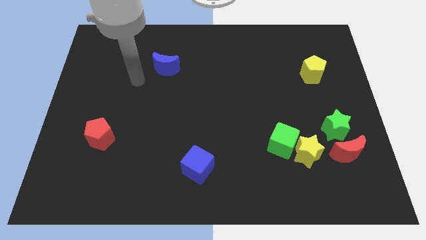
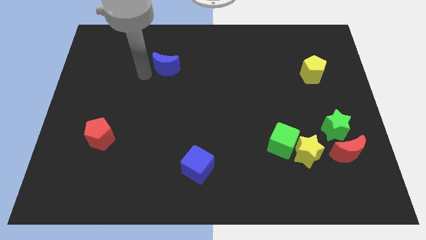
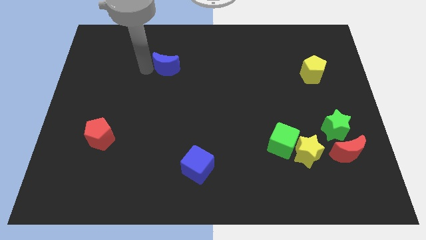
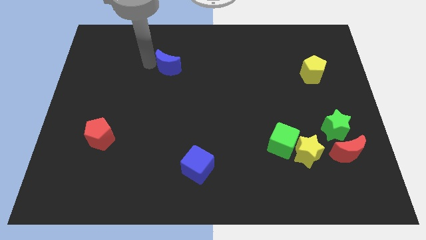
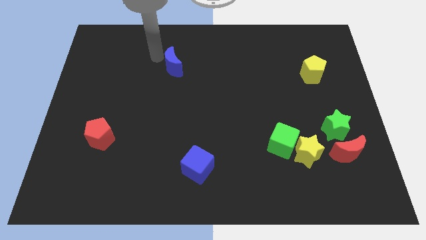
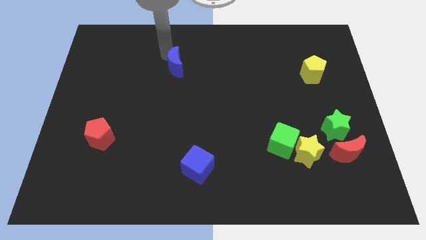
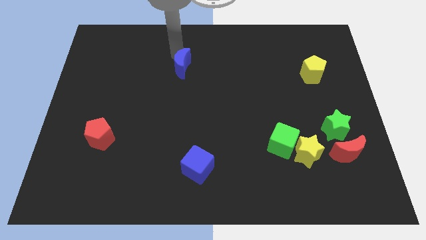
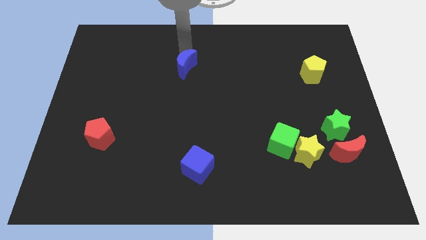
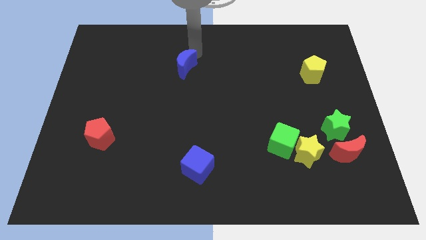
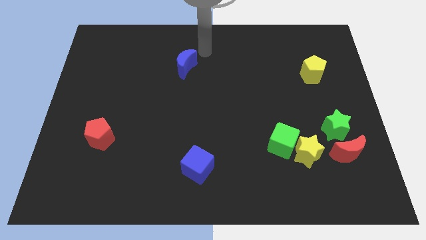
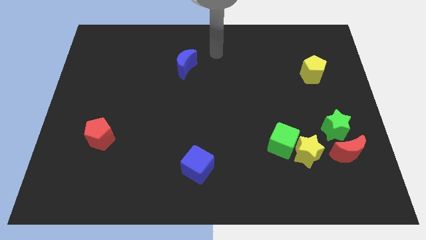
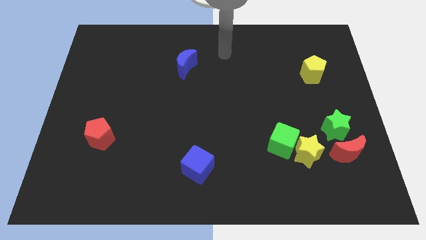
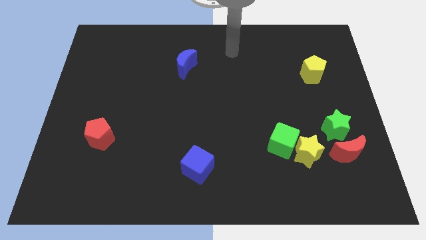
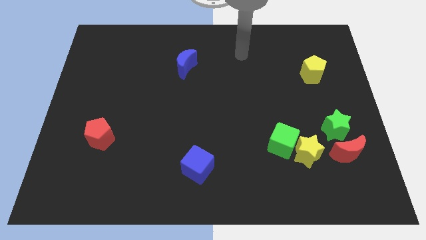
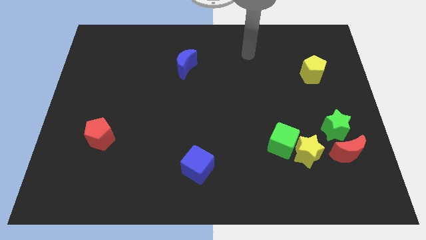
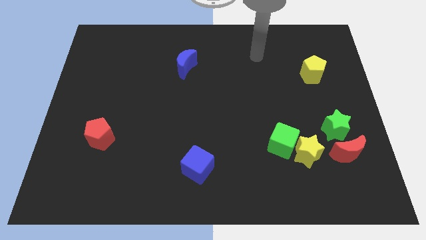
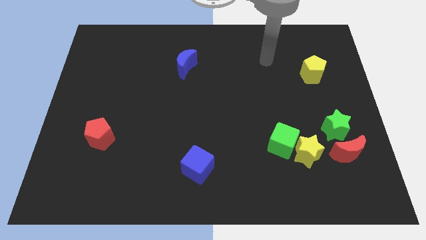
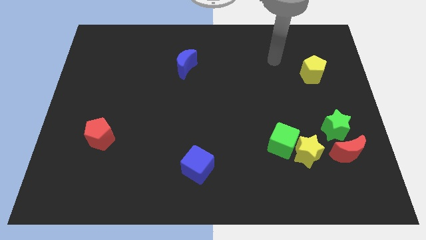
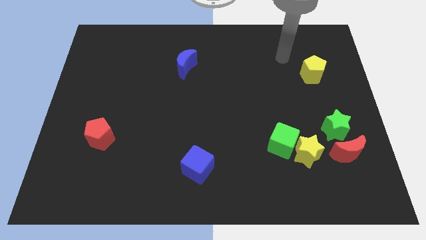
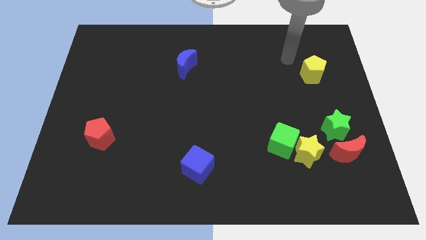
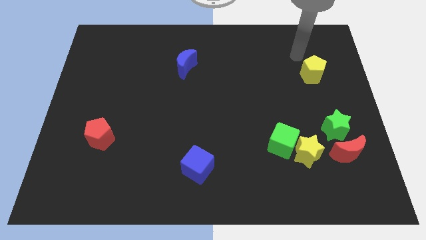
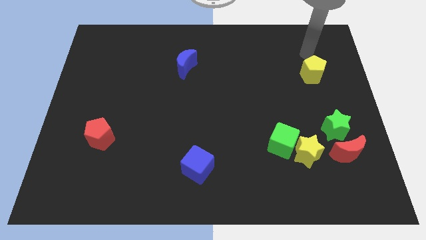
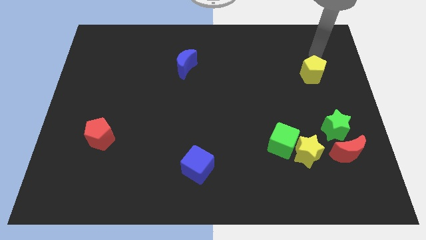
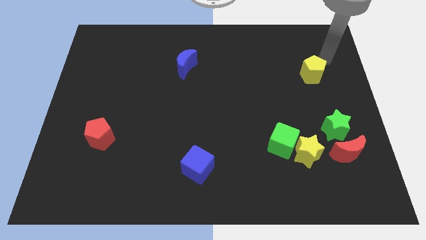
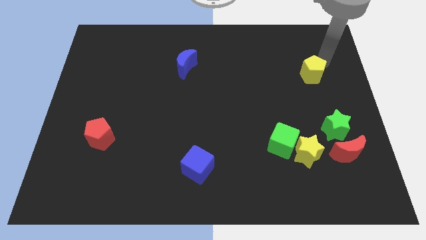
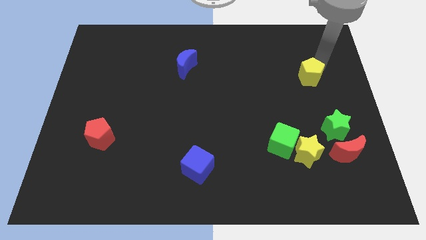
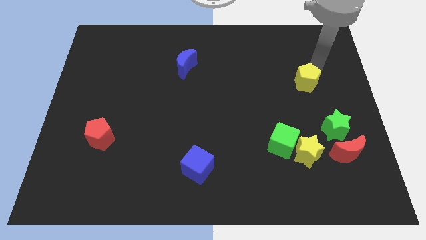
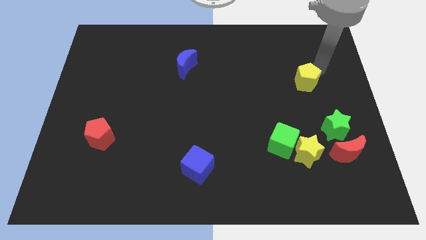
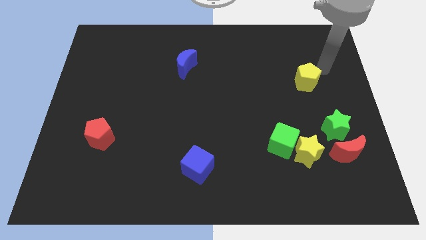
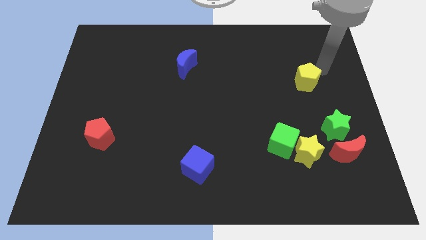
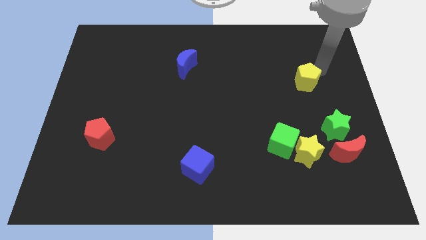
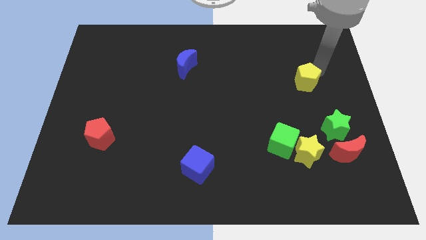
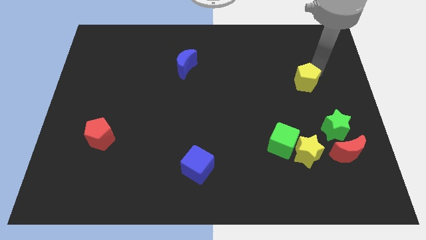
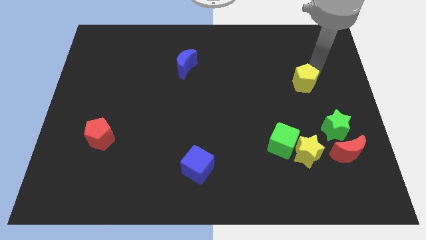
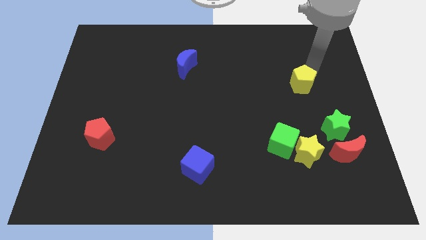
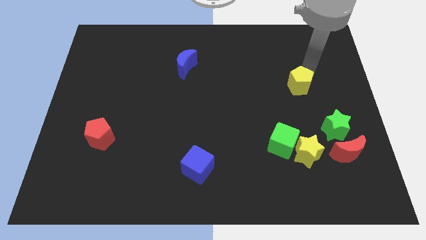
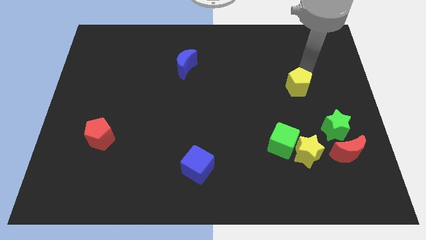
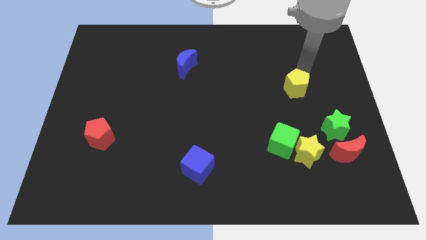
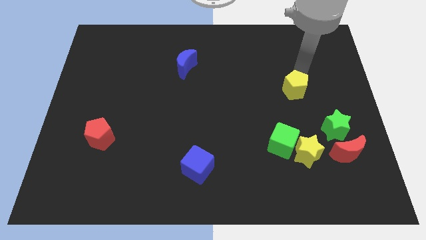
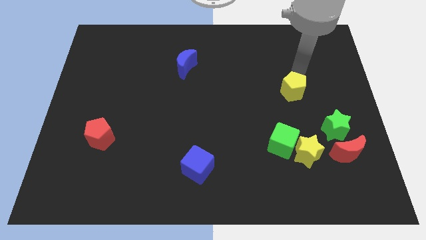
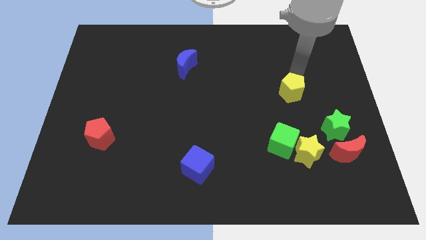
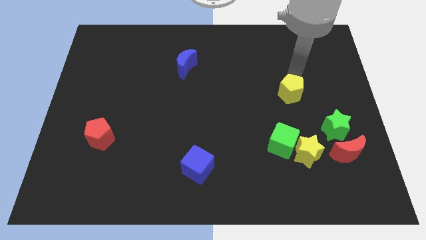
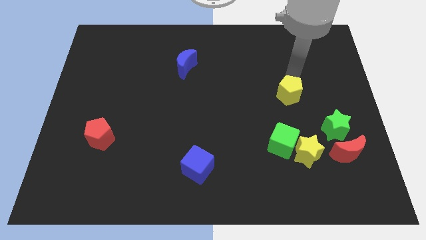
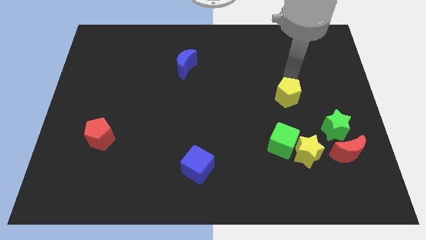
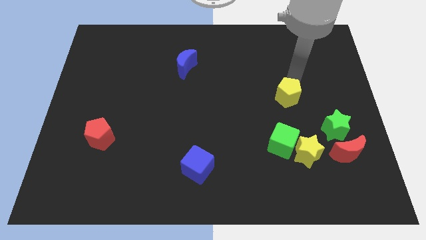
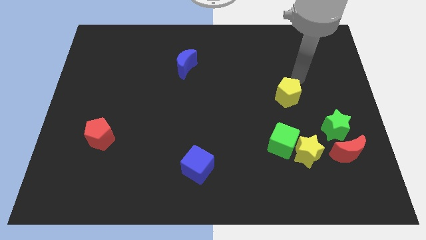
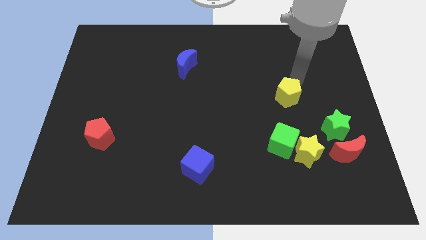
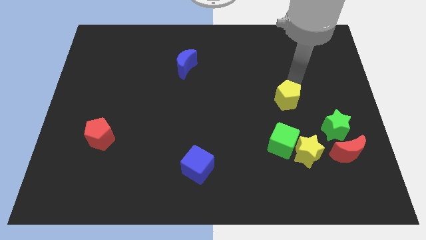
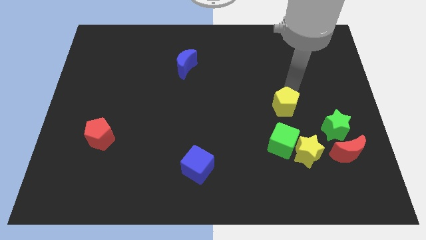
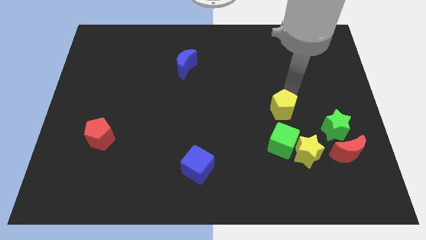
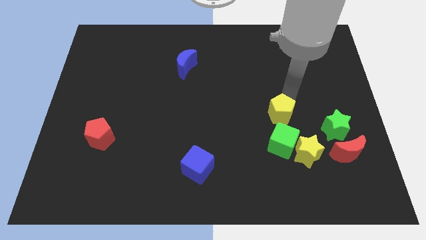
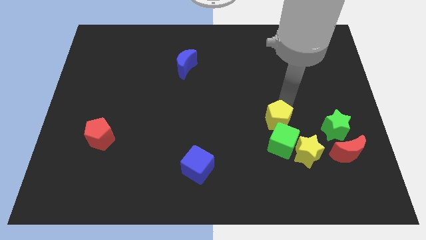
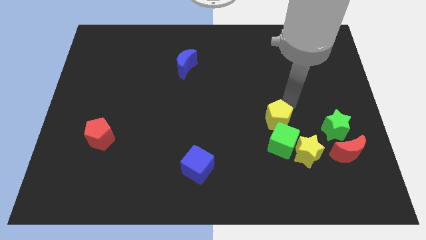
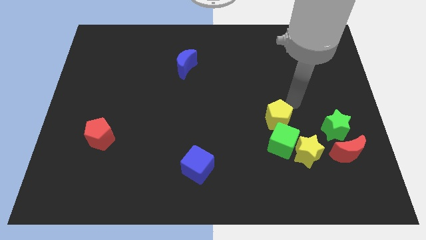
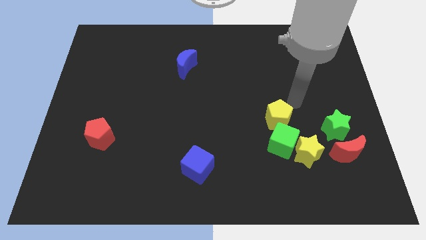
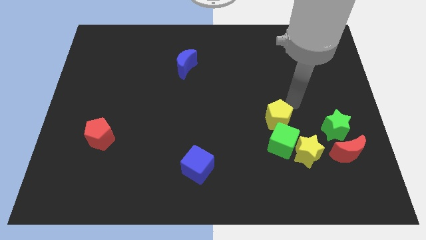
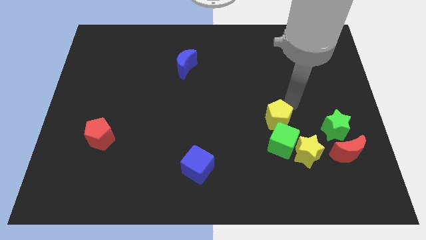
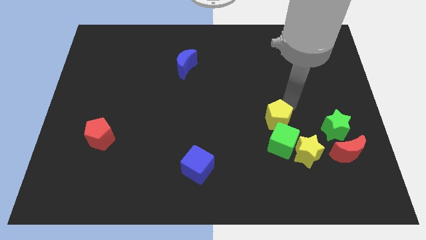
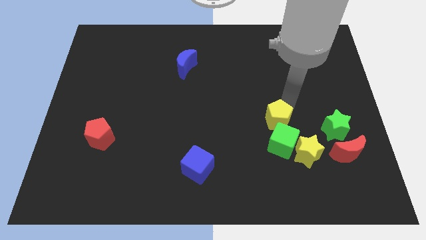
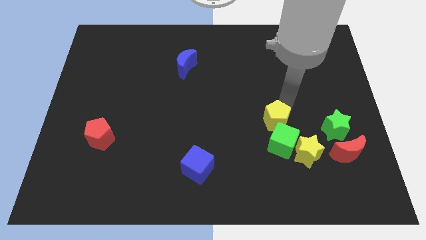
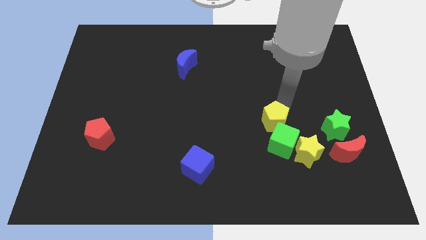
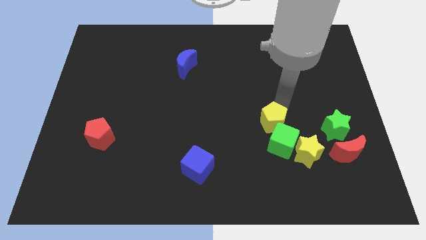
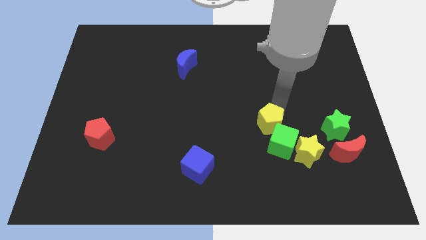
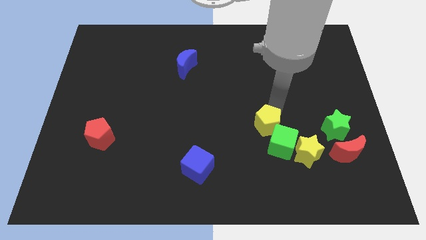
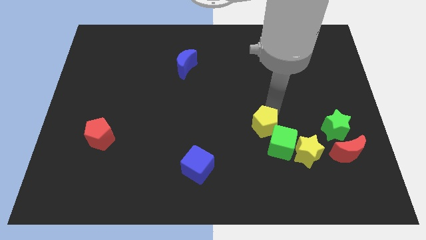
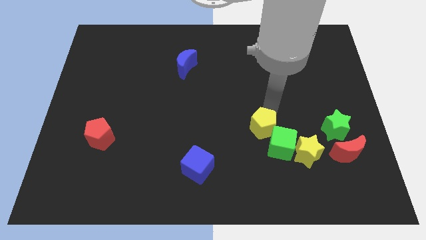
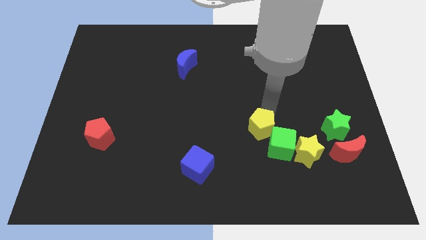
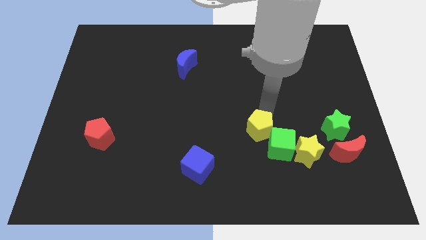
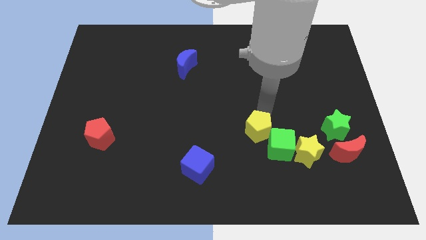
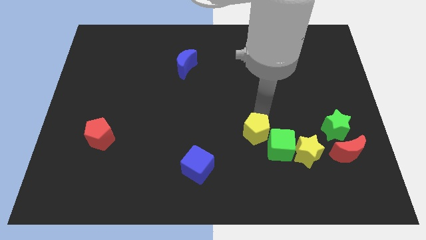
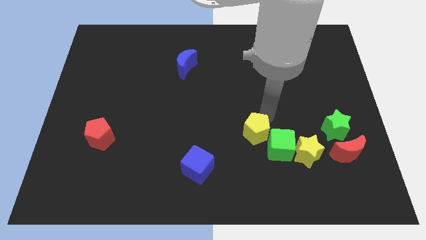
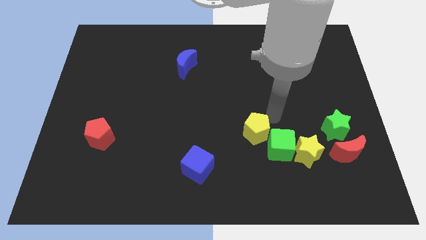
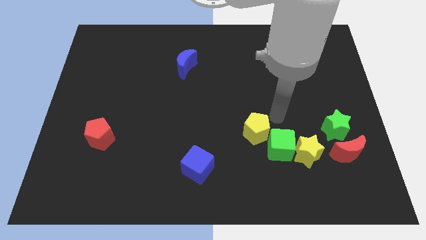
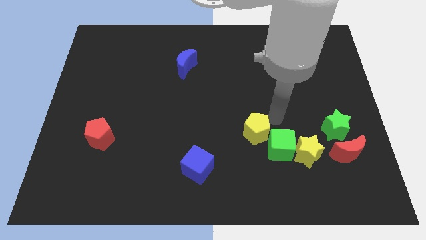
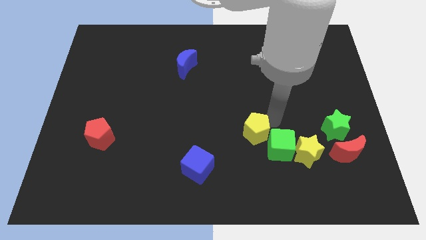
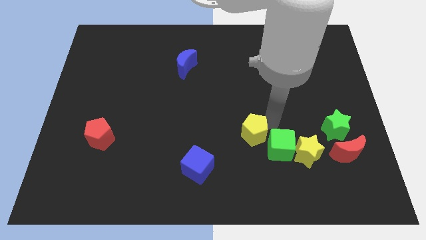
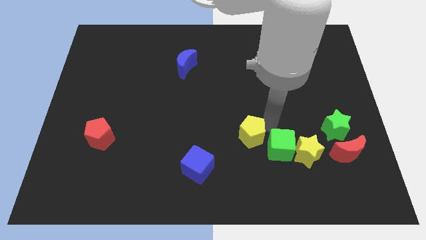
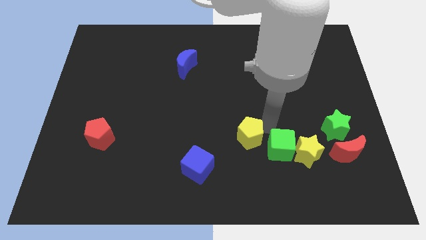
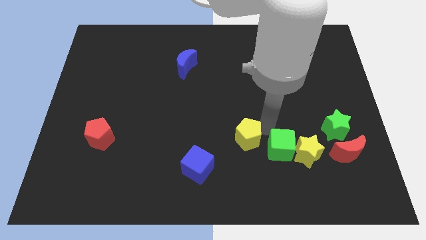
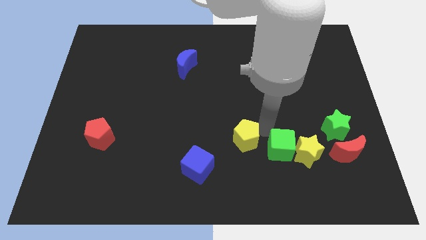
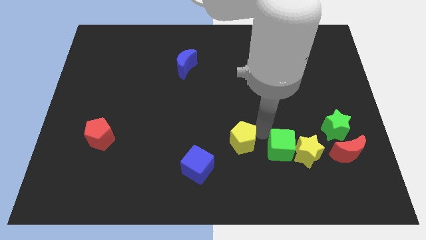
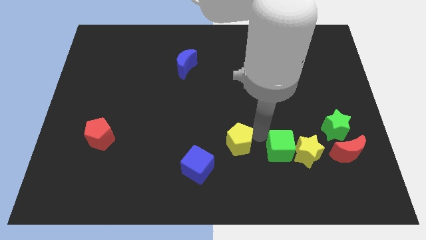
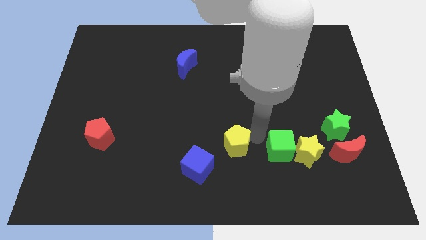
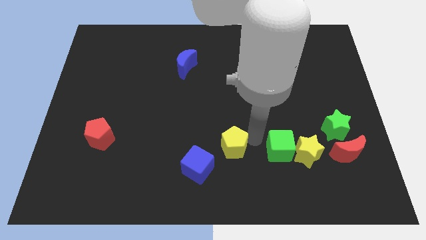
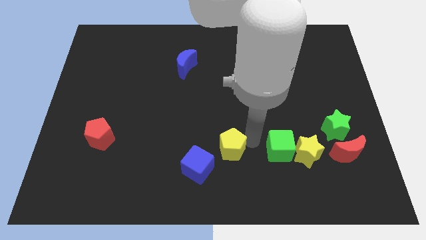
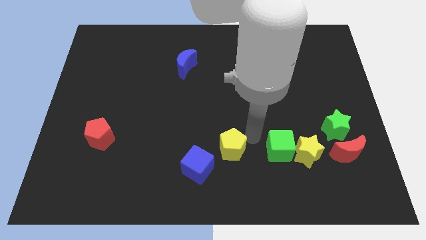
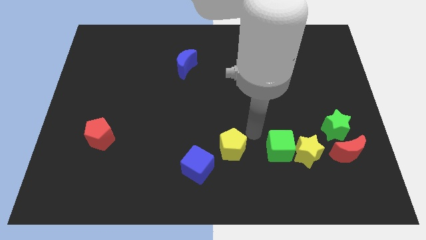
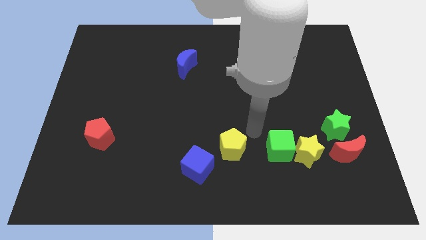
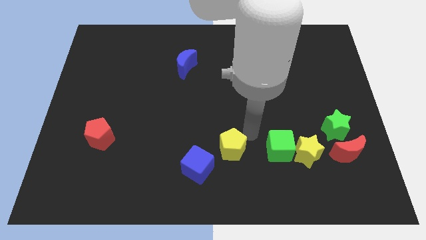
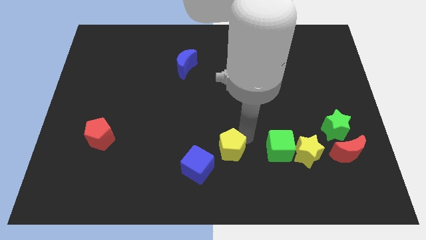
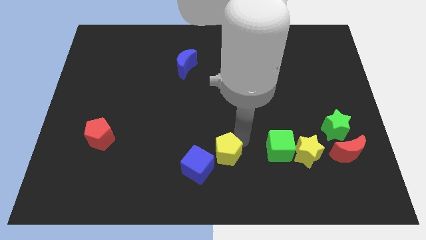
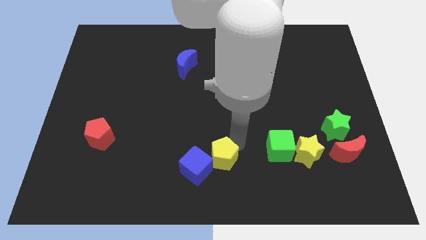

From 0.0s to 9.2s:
push the yellow pentagon close to the blue cube
